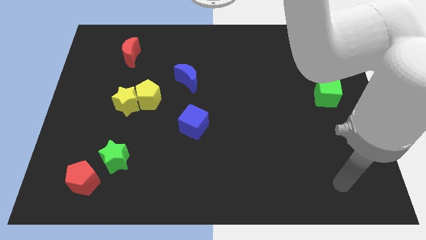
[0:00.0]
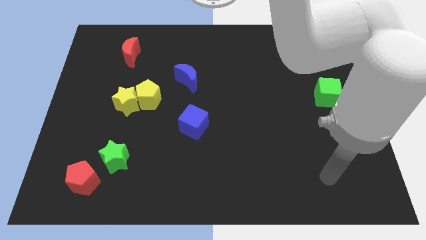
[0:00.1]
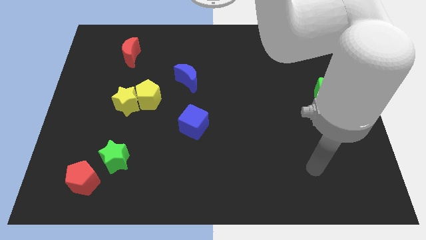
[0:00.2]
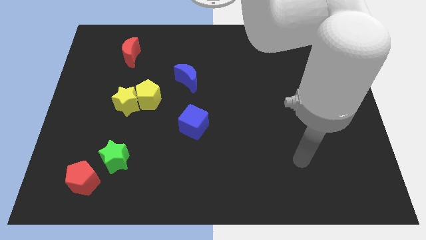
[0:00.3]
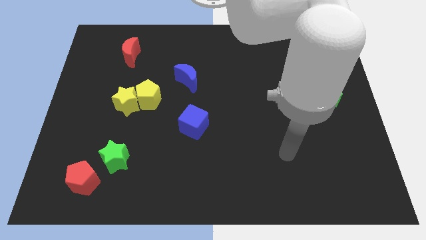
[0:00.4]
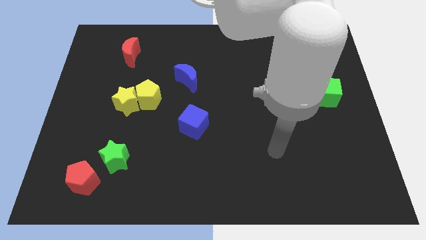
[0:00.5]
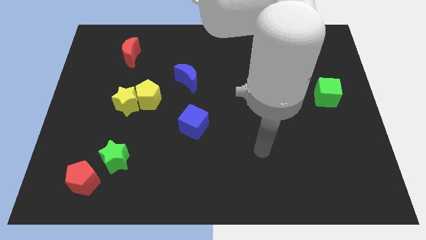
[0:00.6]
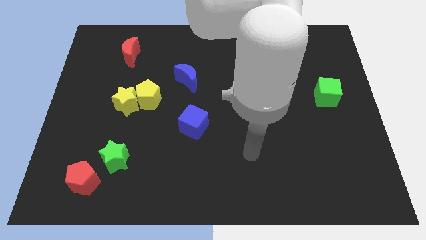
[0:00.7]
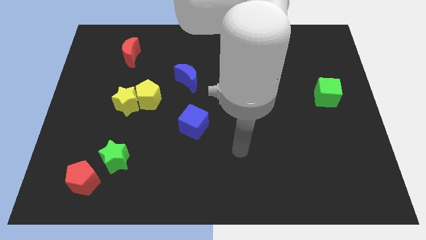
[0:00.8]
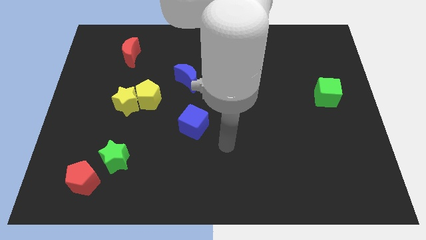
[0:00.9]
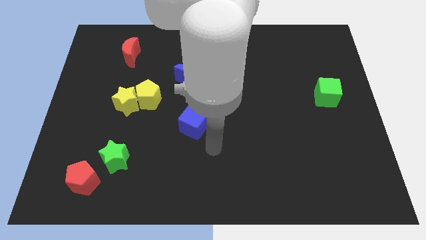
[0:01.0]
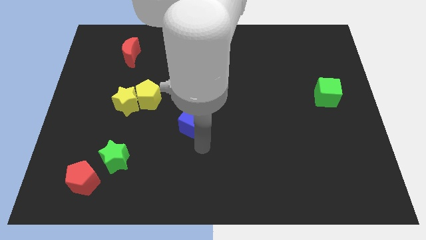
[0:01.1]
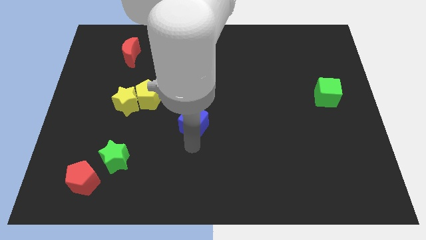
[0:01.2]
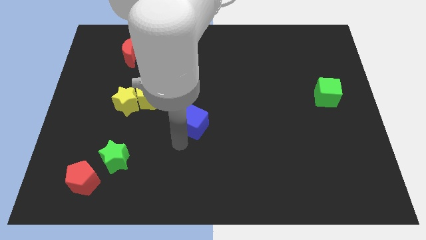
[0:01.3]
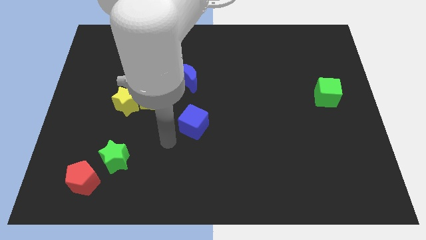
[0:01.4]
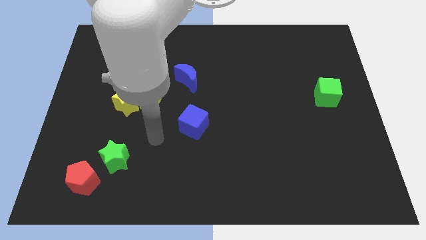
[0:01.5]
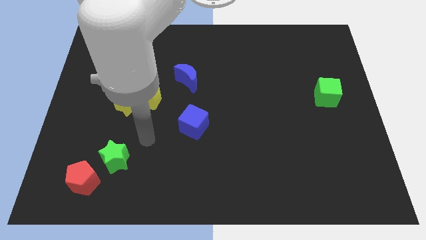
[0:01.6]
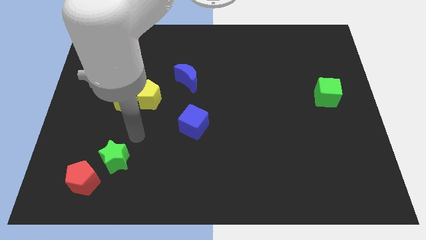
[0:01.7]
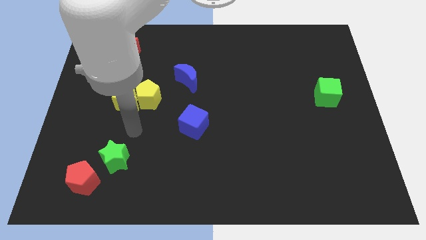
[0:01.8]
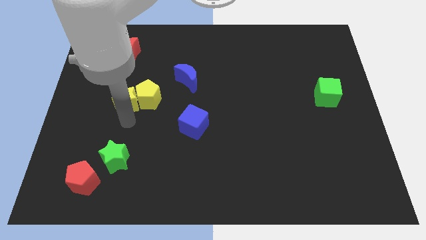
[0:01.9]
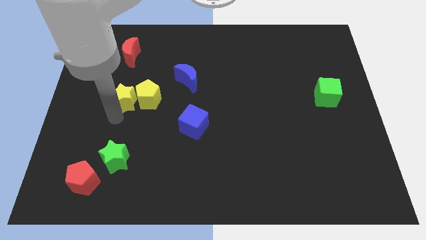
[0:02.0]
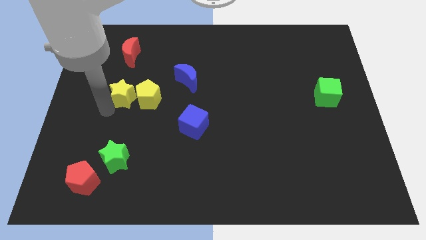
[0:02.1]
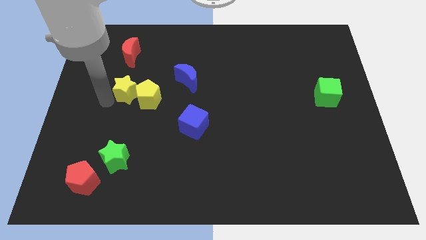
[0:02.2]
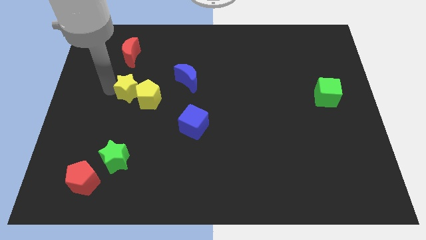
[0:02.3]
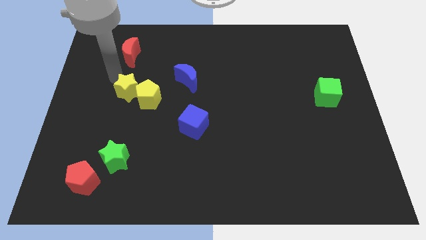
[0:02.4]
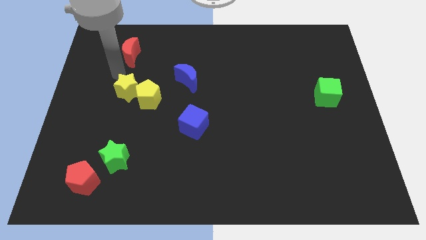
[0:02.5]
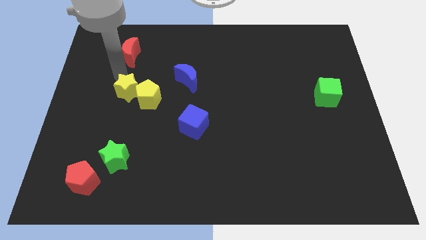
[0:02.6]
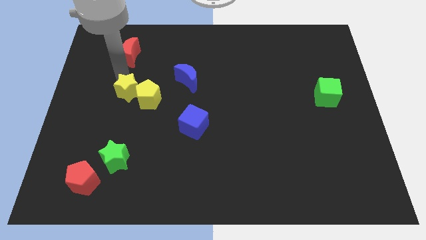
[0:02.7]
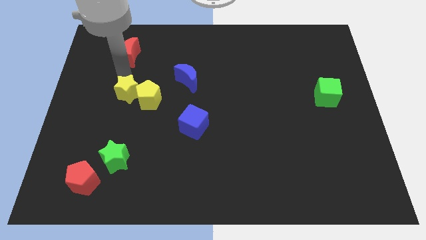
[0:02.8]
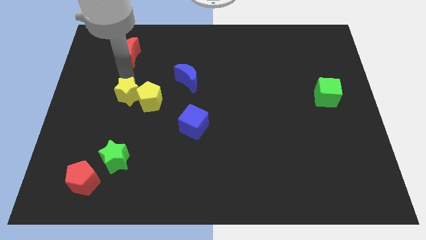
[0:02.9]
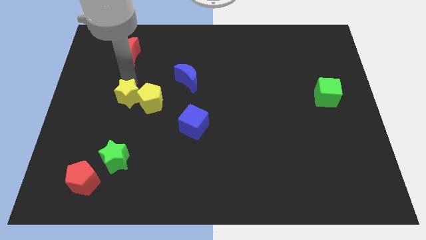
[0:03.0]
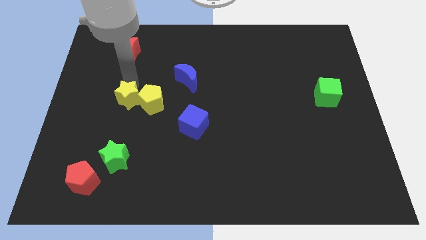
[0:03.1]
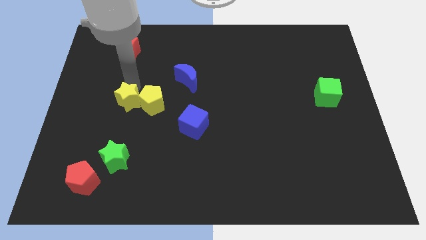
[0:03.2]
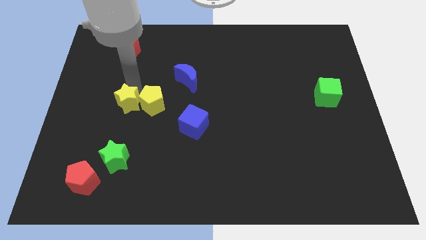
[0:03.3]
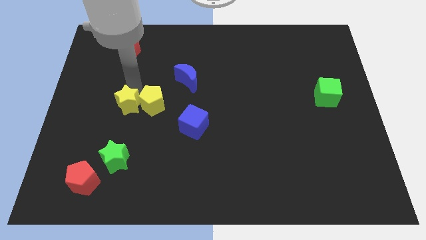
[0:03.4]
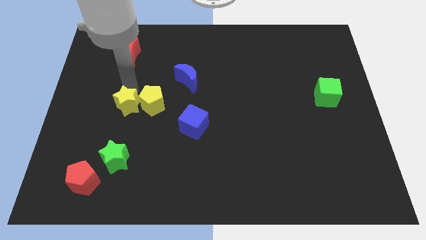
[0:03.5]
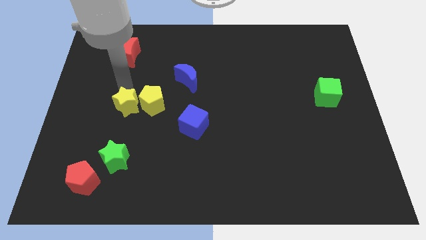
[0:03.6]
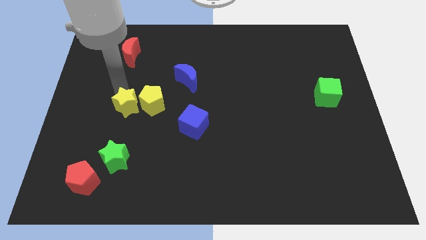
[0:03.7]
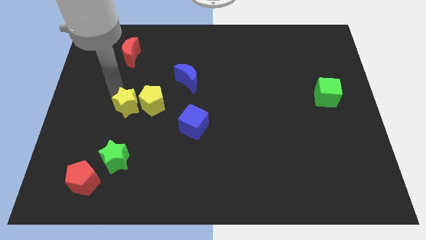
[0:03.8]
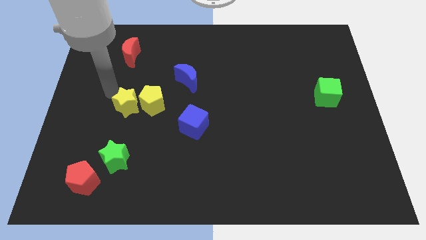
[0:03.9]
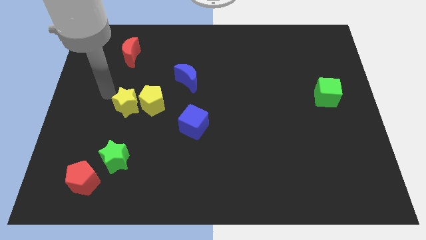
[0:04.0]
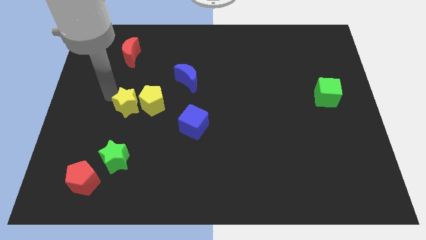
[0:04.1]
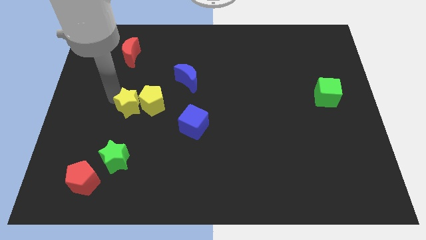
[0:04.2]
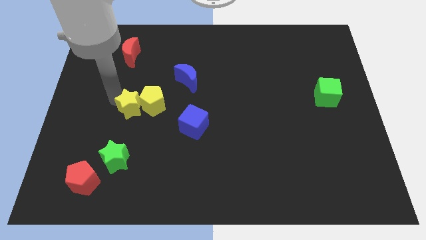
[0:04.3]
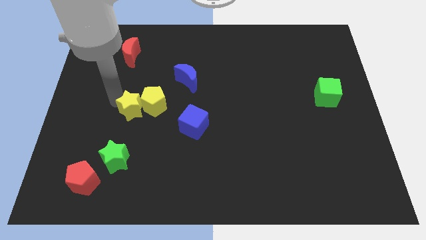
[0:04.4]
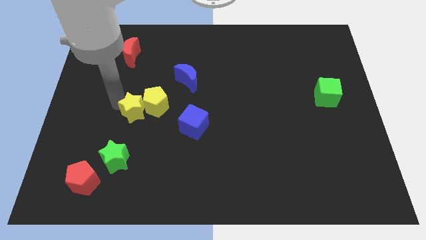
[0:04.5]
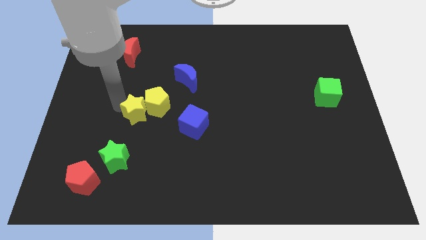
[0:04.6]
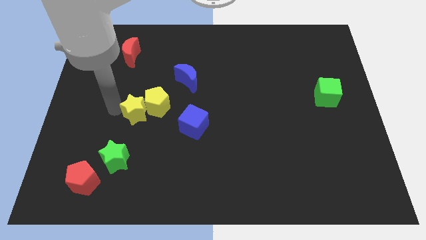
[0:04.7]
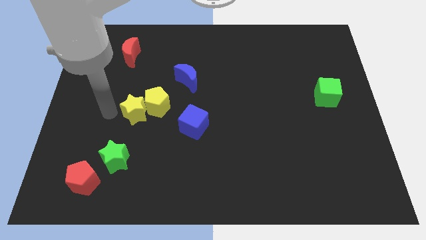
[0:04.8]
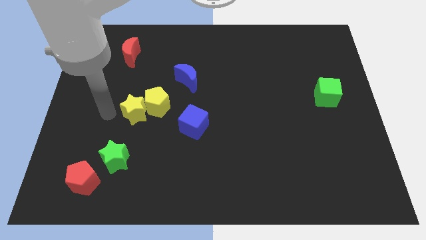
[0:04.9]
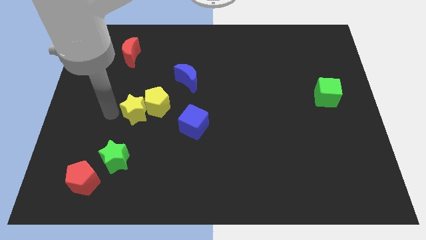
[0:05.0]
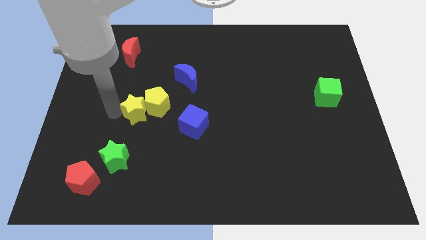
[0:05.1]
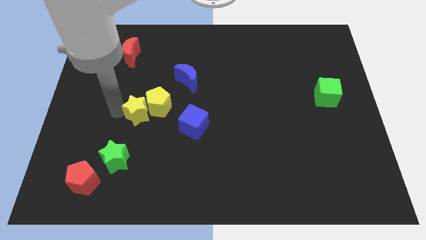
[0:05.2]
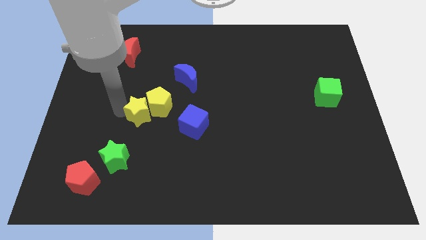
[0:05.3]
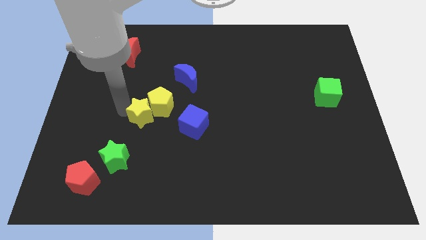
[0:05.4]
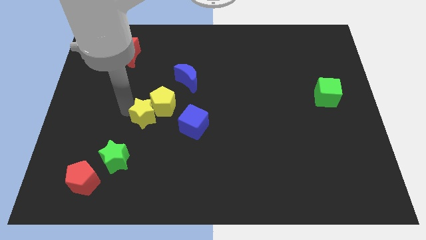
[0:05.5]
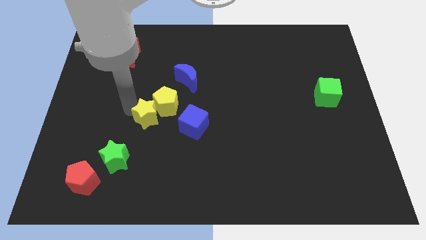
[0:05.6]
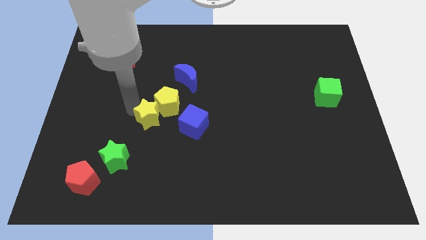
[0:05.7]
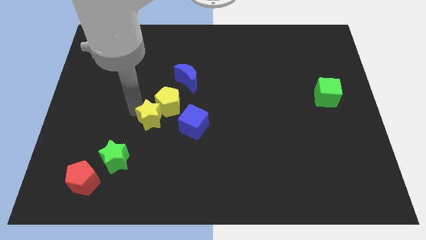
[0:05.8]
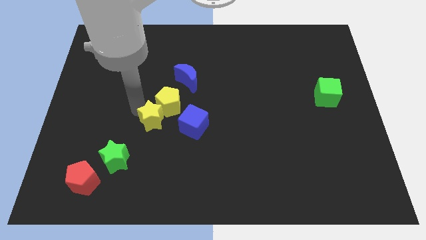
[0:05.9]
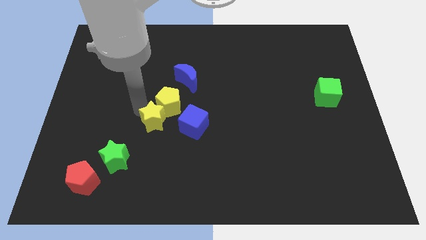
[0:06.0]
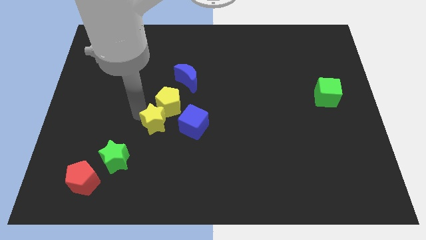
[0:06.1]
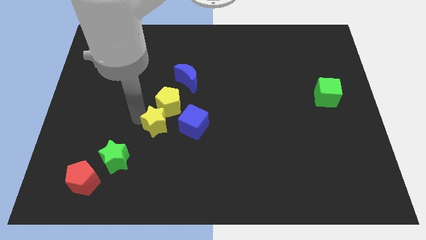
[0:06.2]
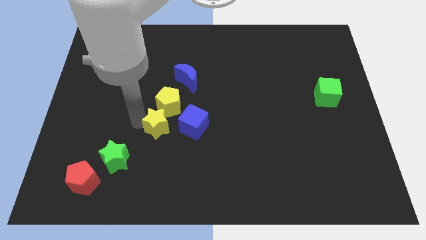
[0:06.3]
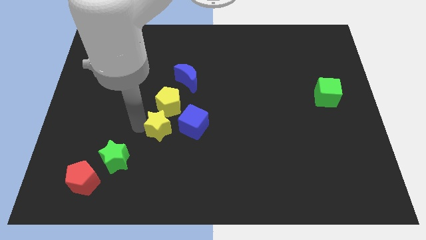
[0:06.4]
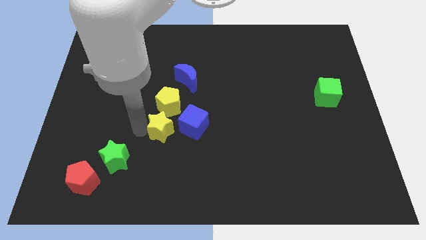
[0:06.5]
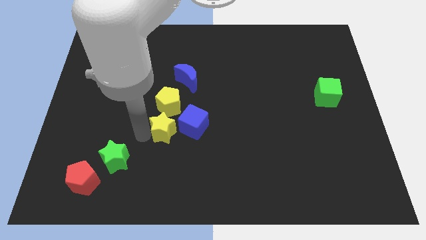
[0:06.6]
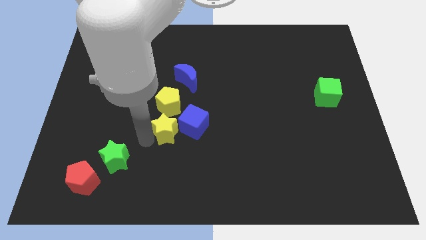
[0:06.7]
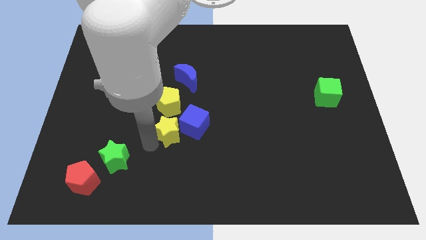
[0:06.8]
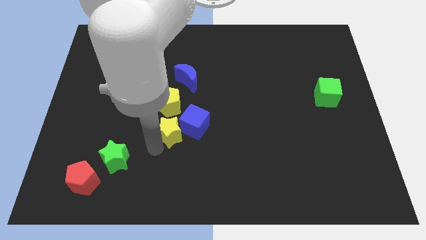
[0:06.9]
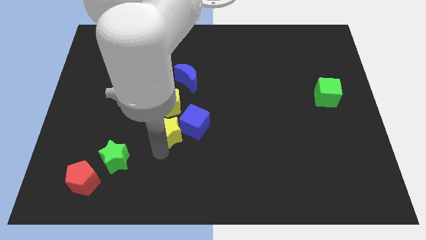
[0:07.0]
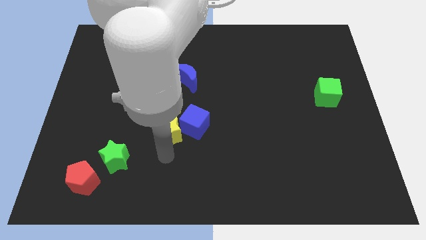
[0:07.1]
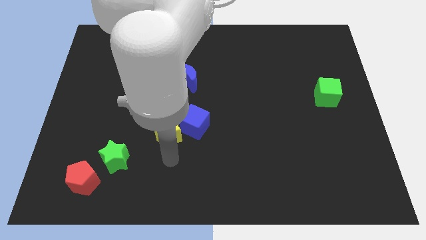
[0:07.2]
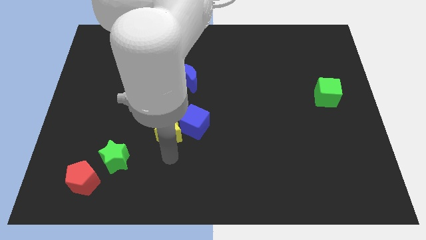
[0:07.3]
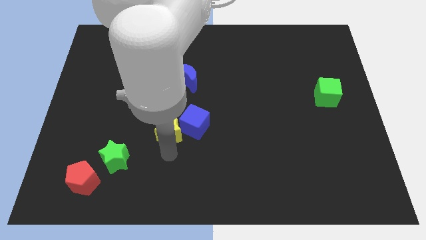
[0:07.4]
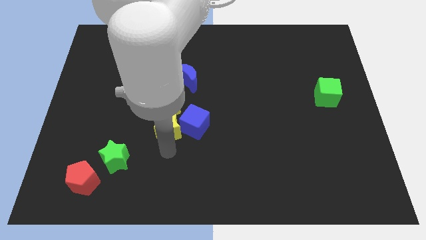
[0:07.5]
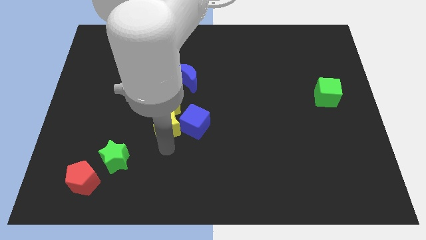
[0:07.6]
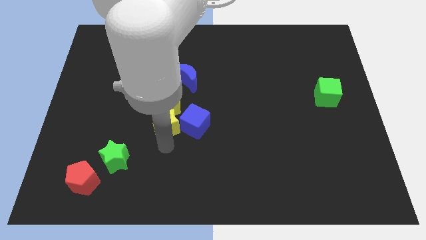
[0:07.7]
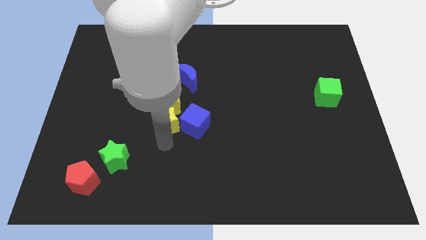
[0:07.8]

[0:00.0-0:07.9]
move the yellow star to the middle of the board
